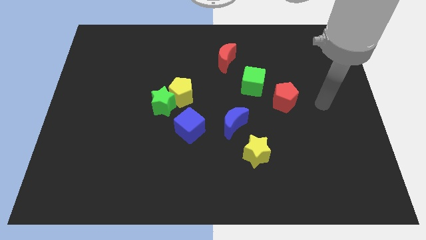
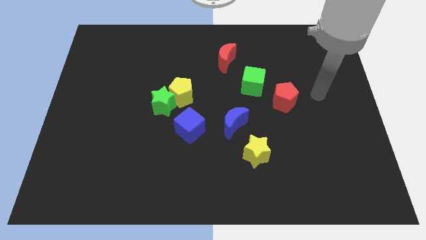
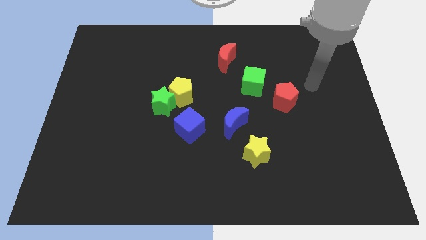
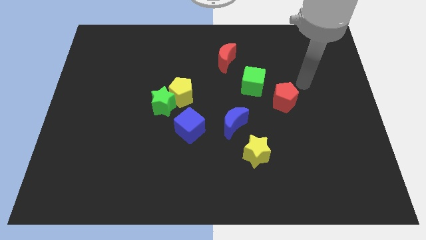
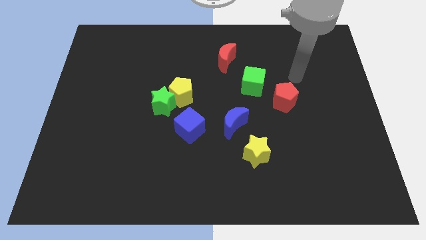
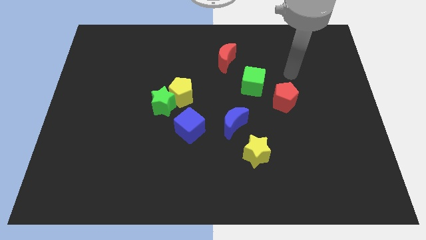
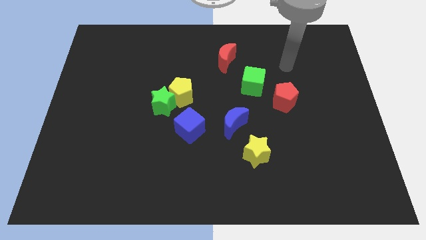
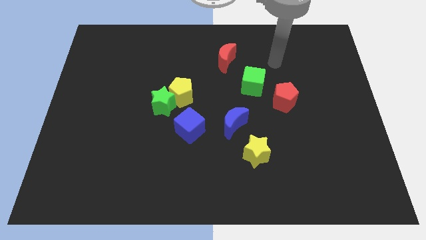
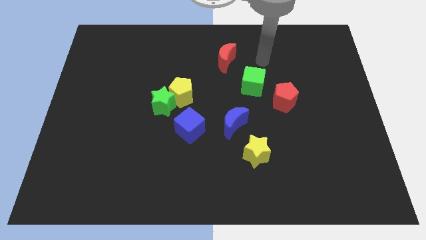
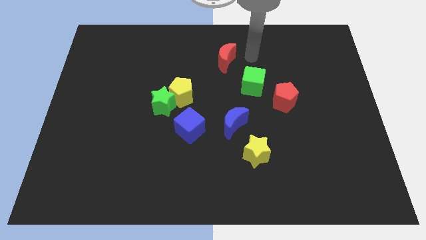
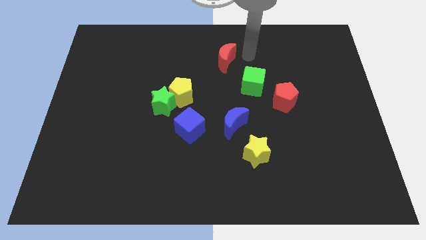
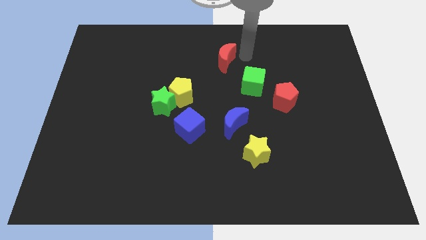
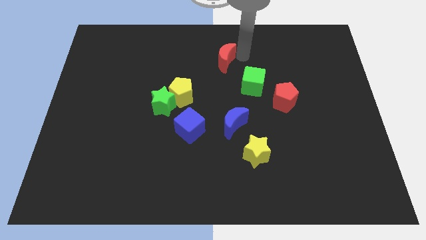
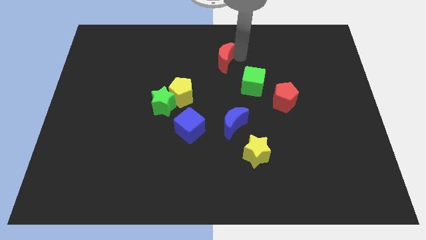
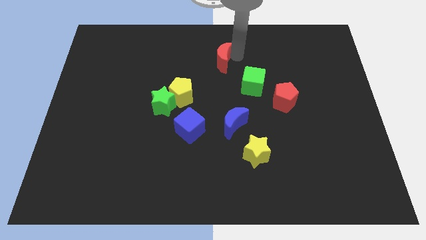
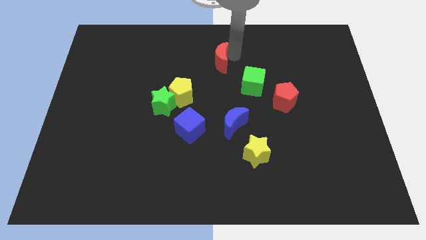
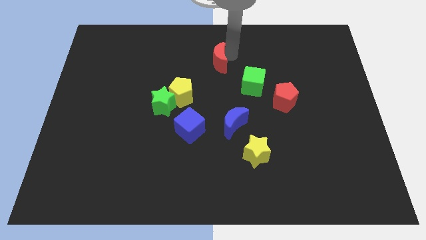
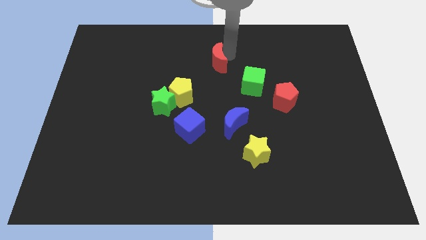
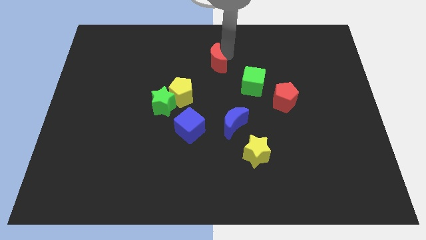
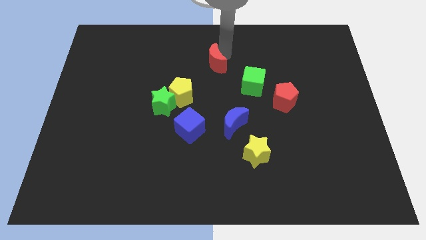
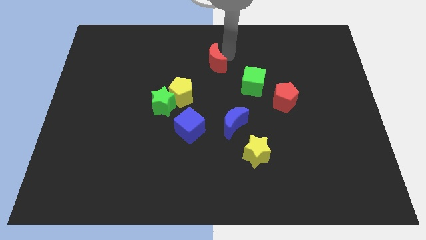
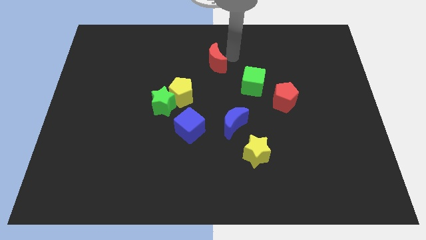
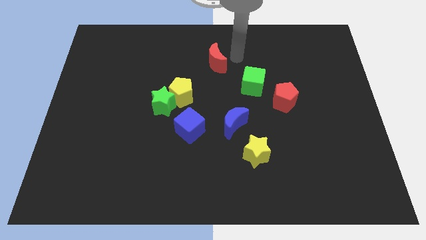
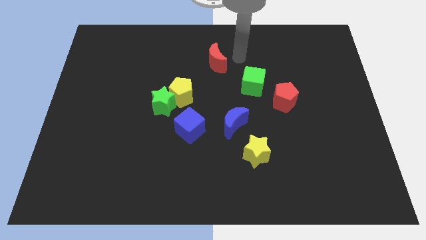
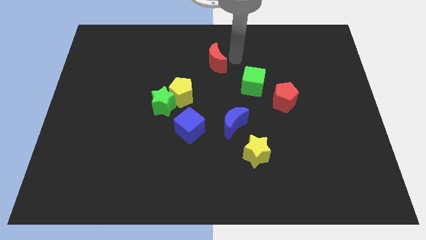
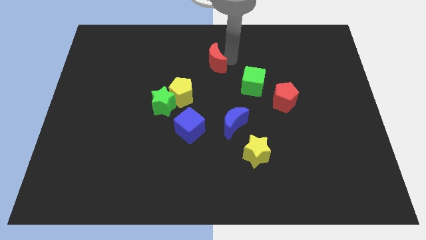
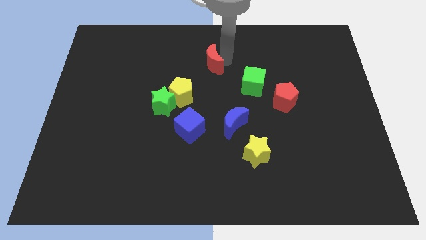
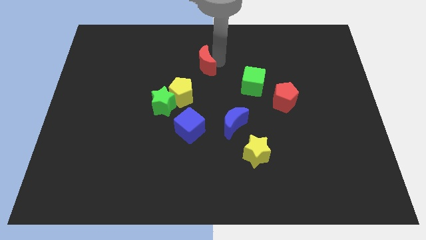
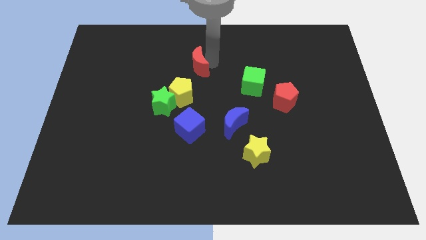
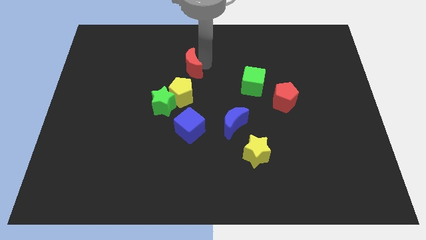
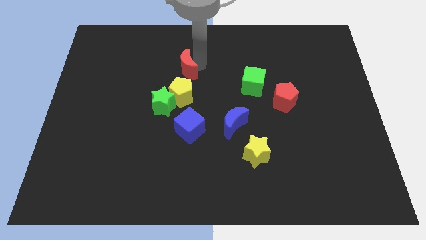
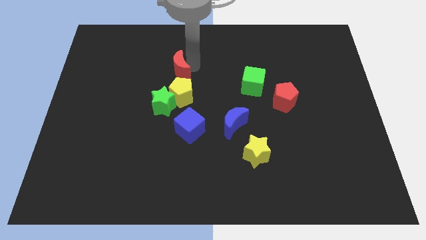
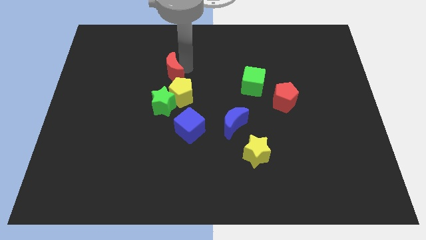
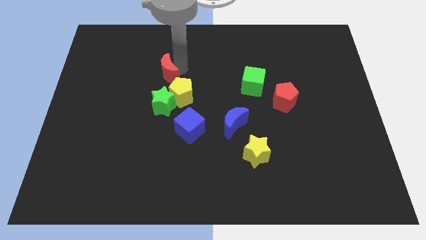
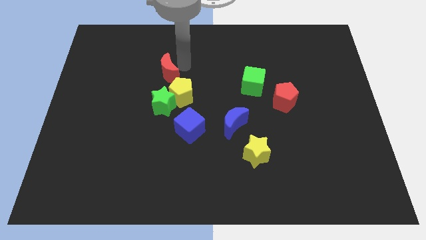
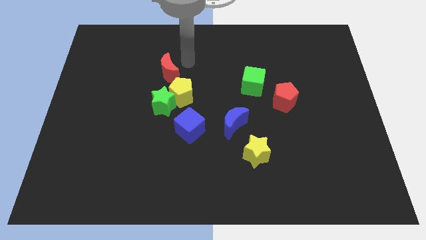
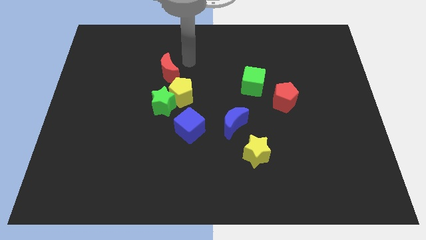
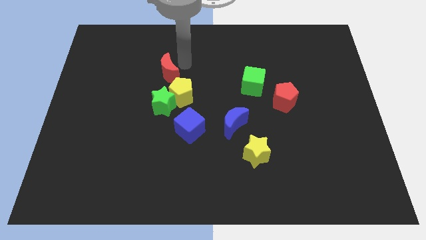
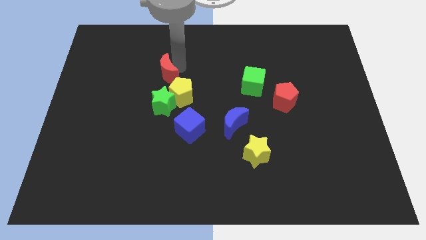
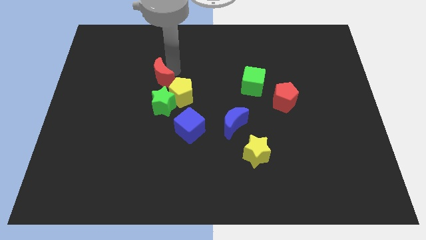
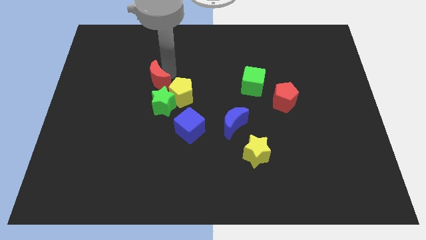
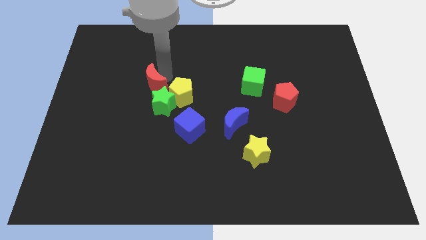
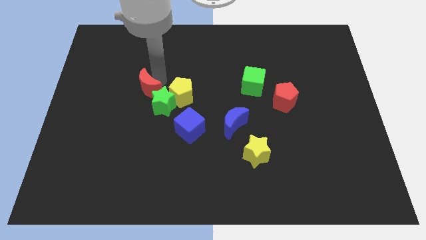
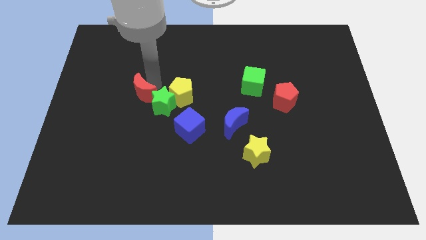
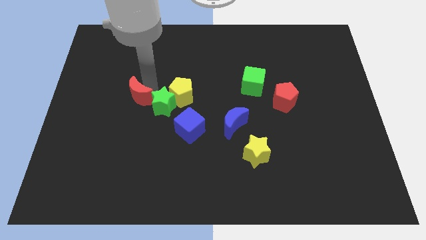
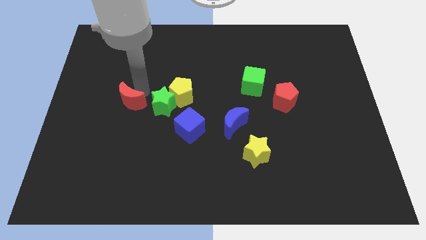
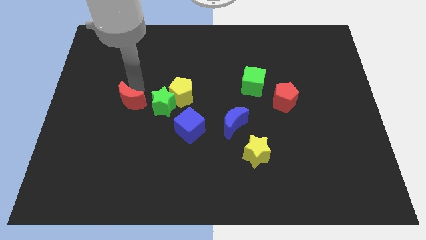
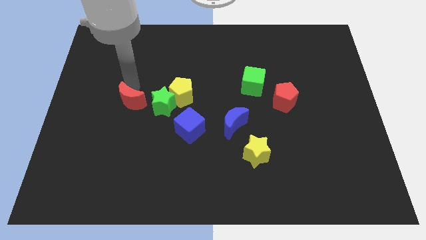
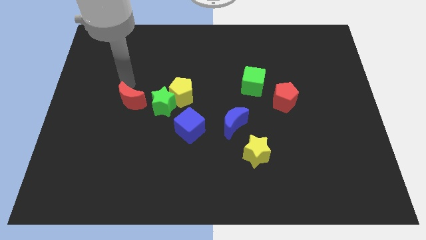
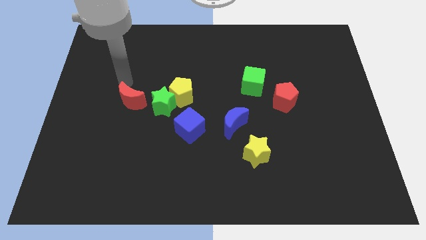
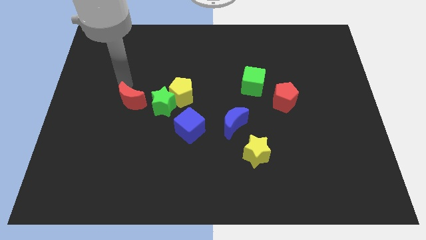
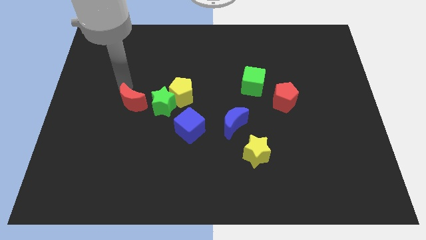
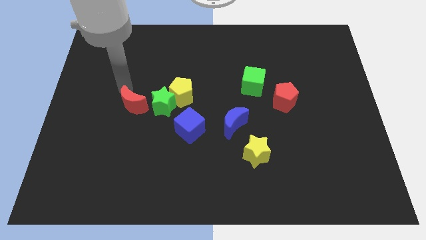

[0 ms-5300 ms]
push the red moon to the bottom left side of the green star

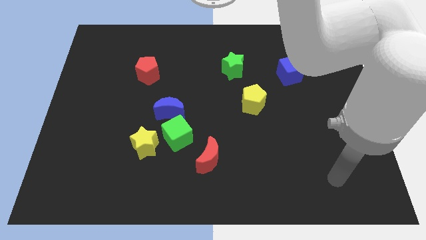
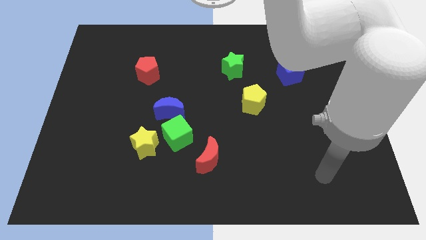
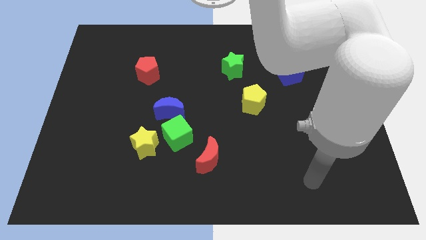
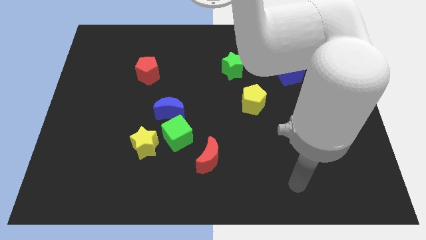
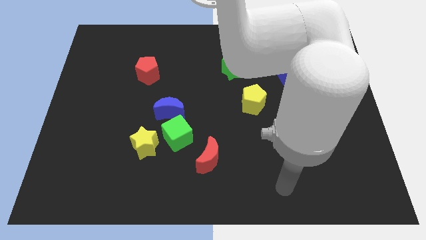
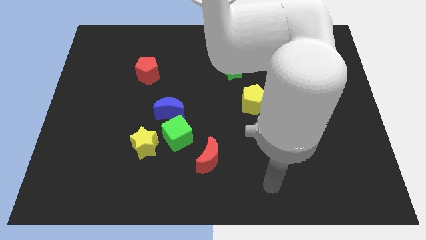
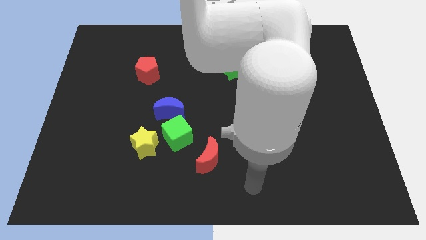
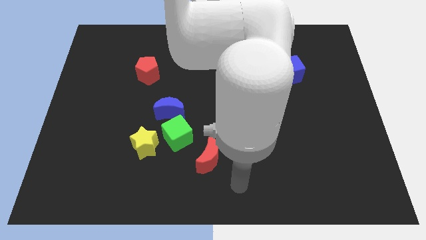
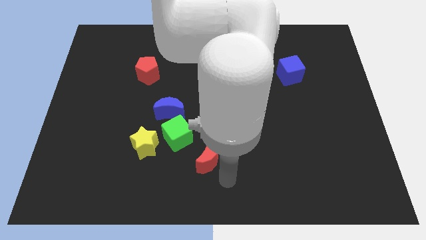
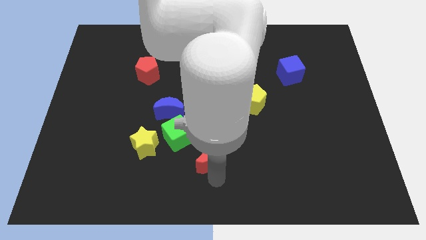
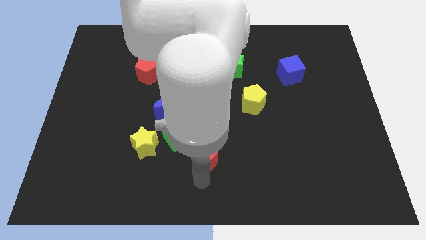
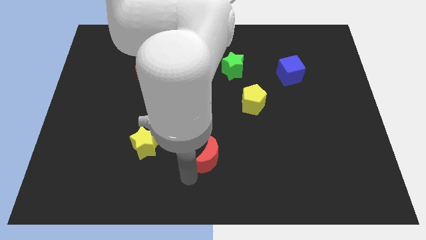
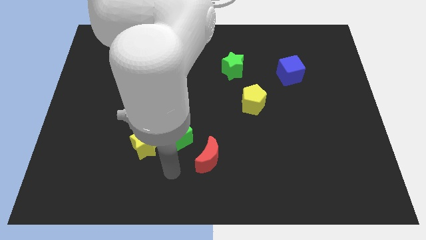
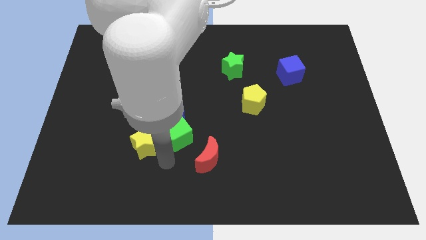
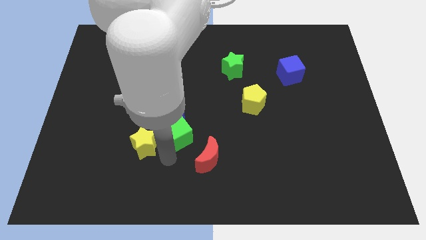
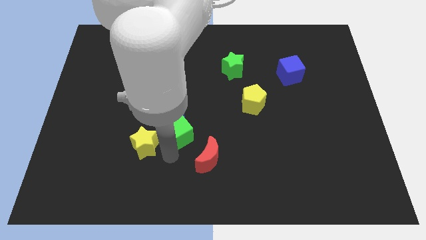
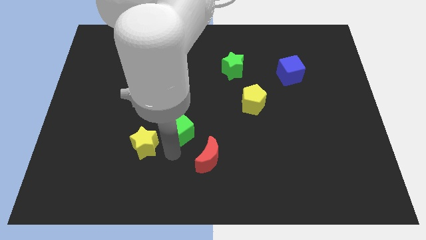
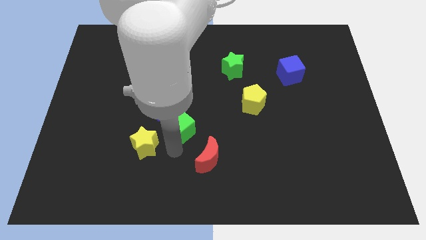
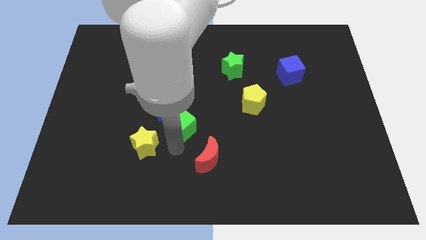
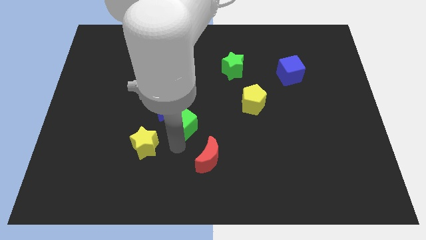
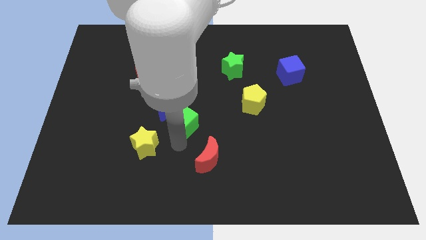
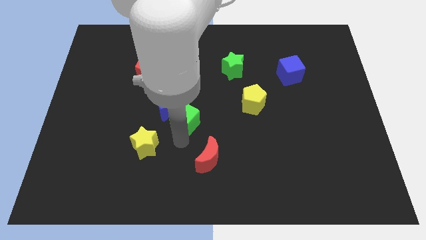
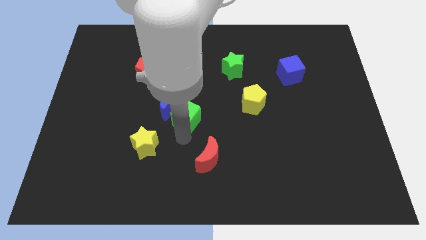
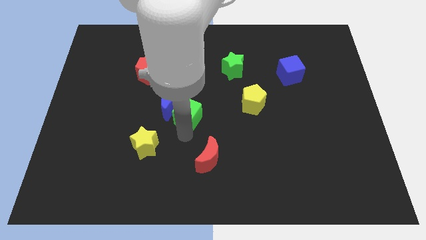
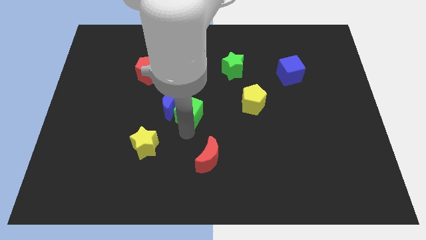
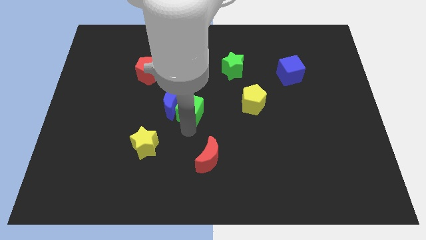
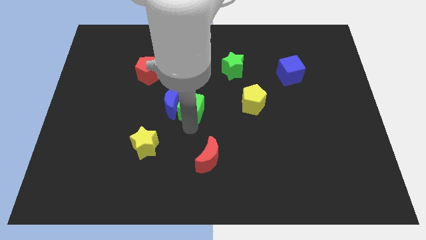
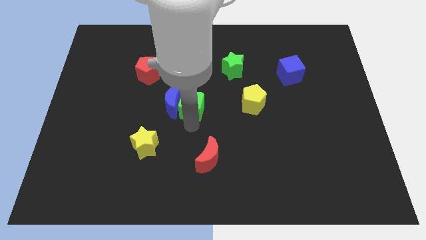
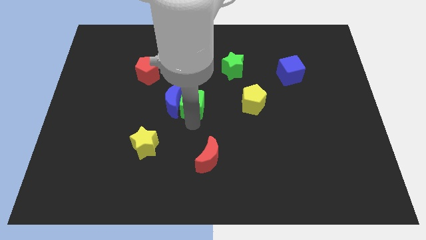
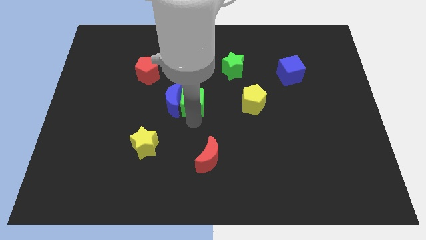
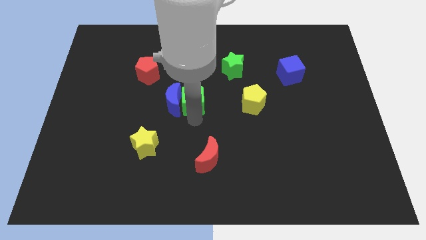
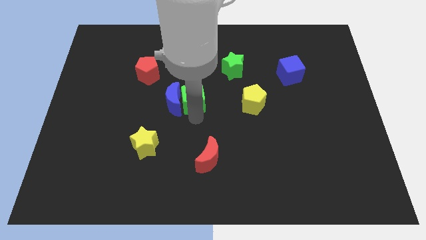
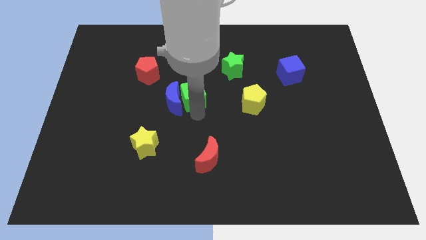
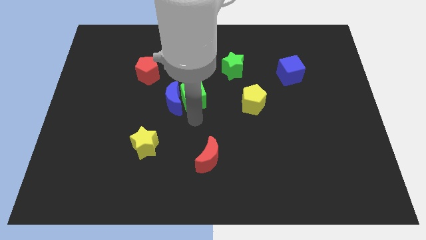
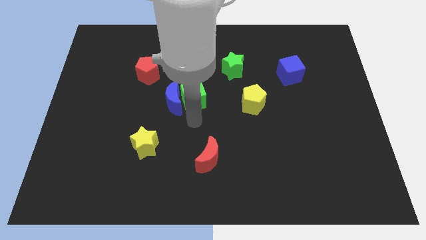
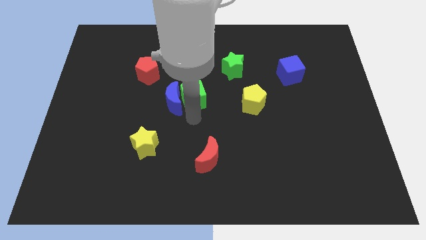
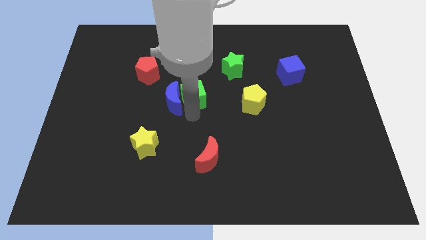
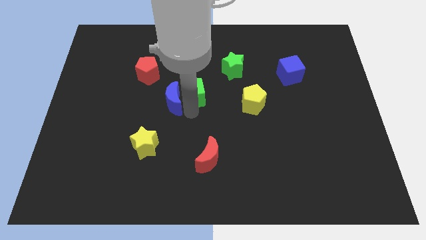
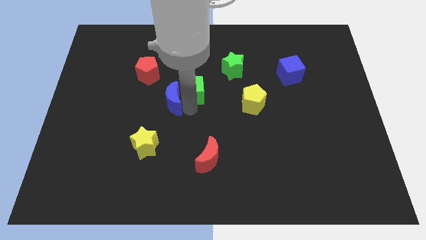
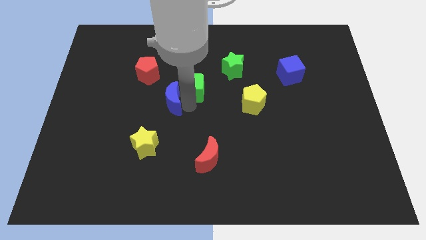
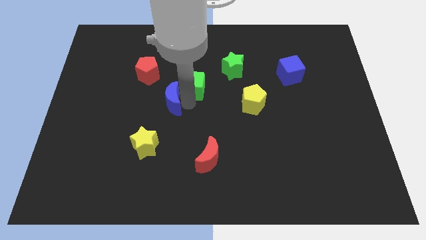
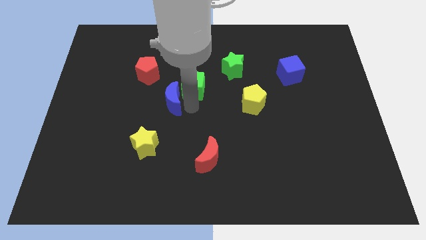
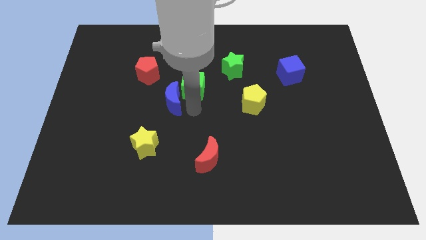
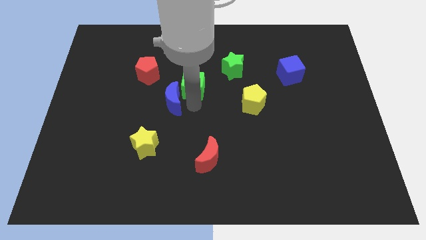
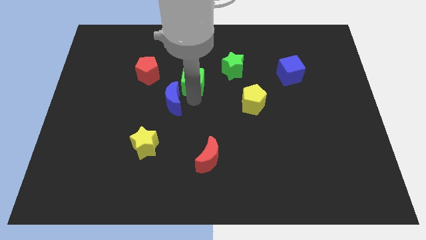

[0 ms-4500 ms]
push the green cube left of the green star
